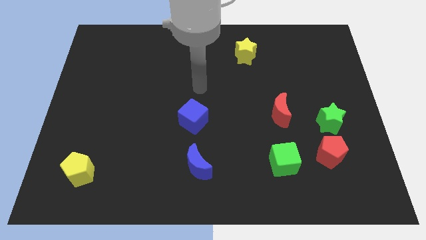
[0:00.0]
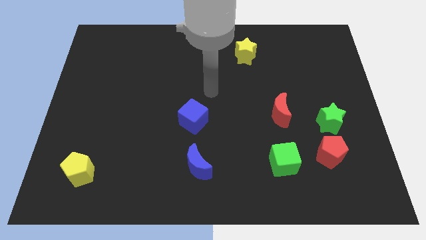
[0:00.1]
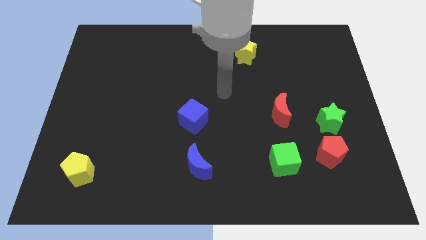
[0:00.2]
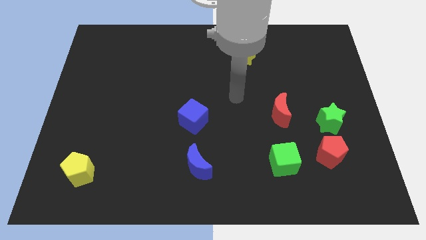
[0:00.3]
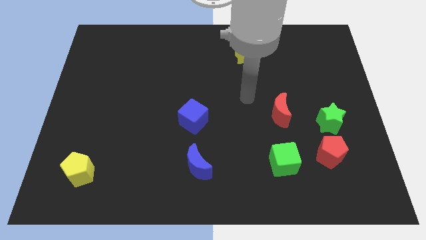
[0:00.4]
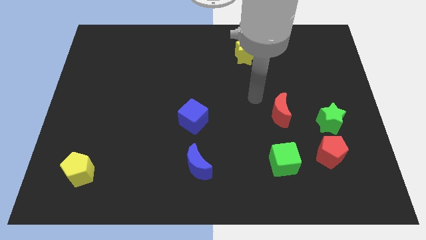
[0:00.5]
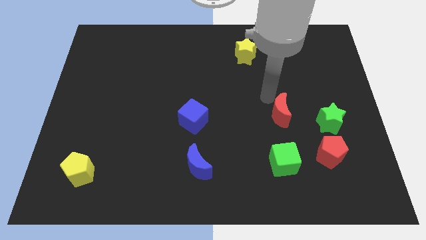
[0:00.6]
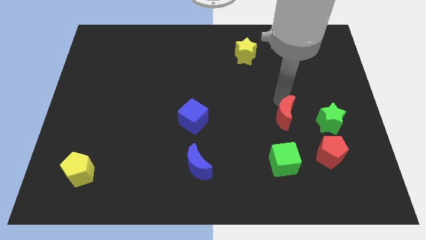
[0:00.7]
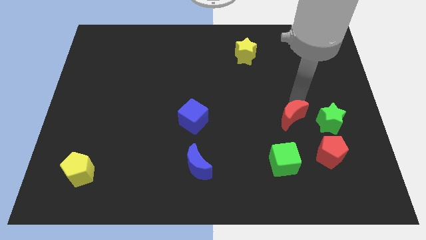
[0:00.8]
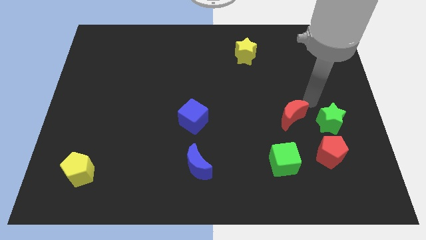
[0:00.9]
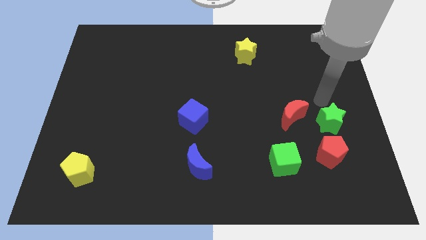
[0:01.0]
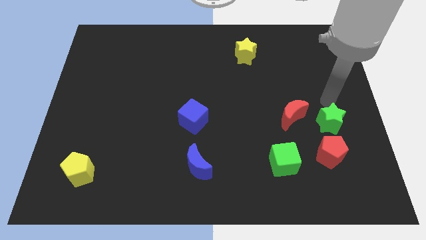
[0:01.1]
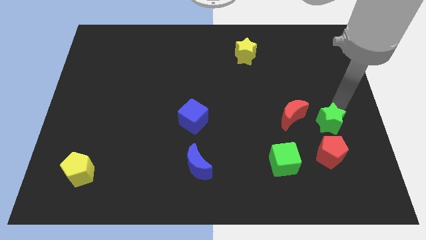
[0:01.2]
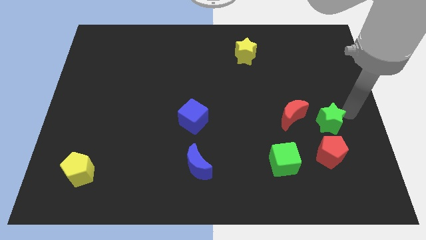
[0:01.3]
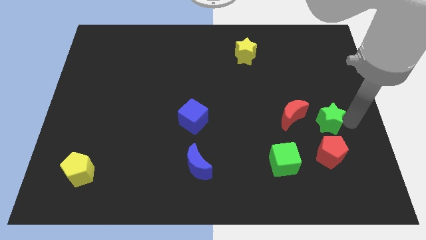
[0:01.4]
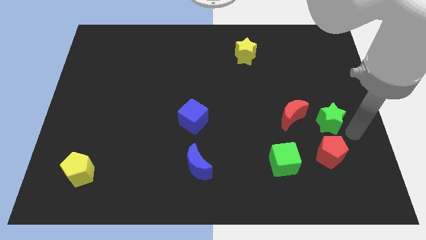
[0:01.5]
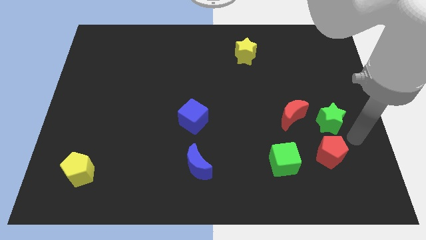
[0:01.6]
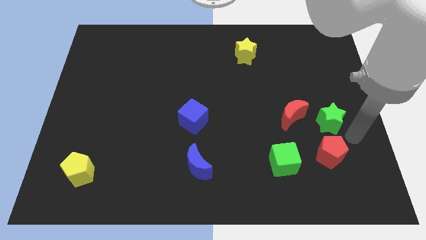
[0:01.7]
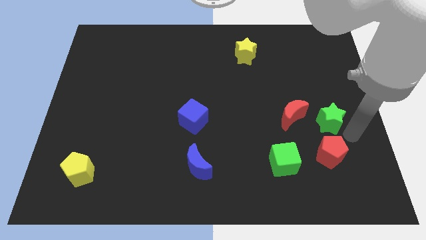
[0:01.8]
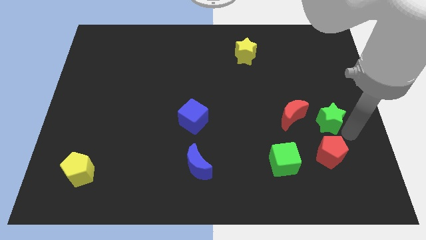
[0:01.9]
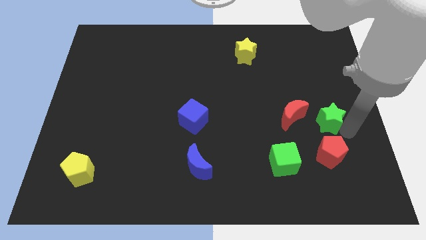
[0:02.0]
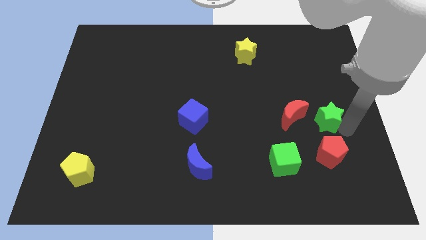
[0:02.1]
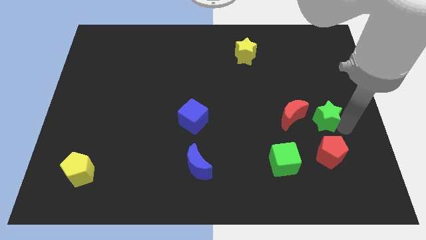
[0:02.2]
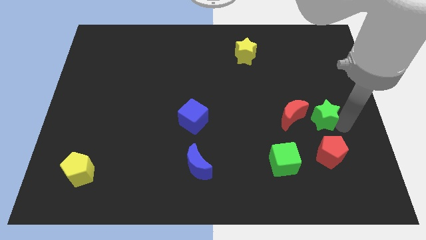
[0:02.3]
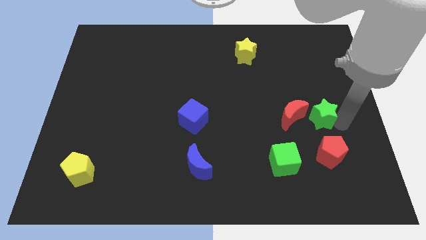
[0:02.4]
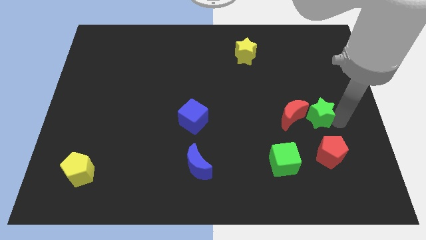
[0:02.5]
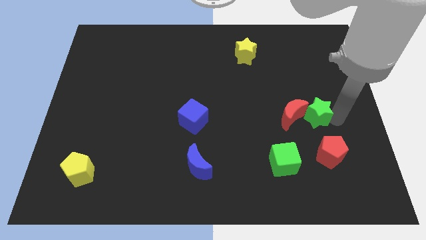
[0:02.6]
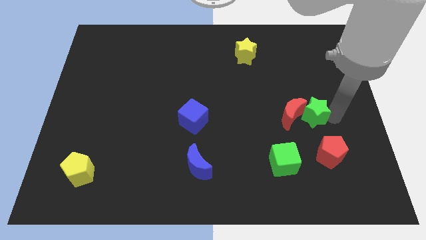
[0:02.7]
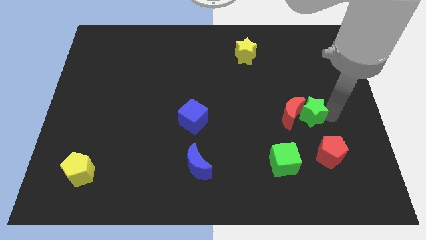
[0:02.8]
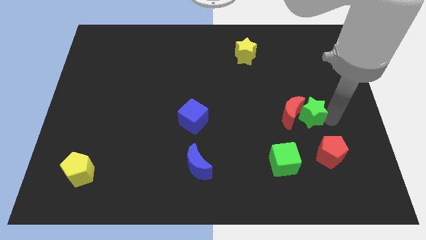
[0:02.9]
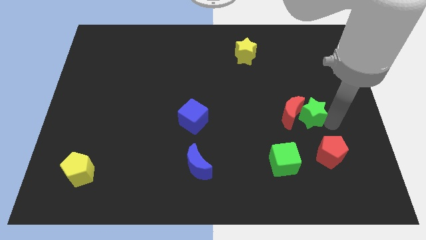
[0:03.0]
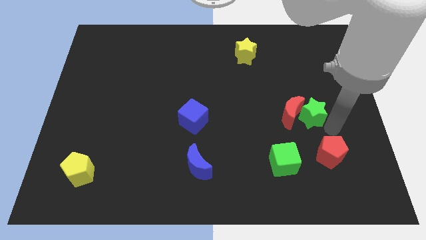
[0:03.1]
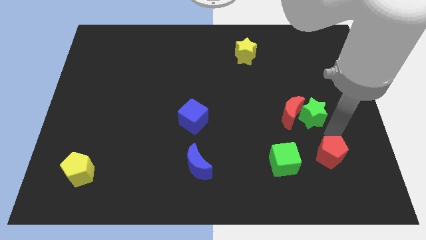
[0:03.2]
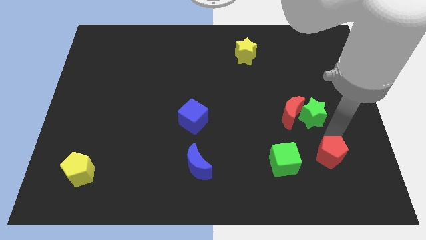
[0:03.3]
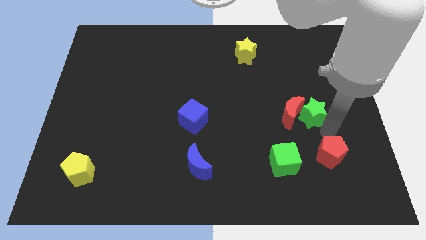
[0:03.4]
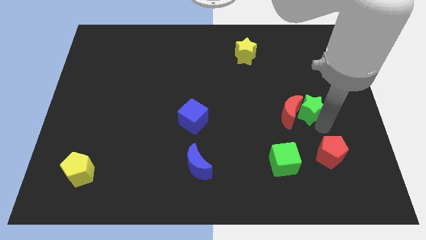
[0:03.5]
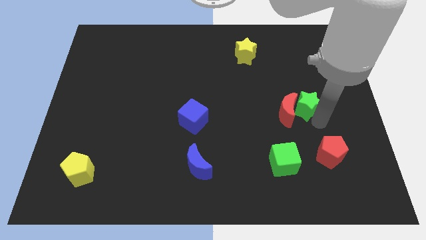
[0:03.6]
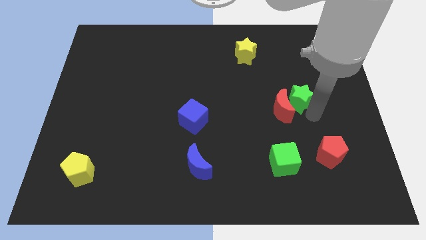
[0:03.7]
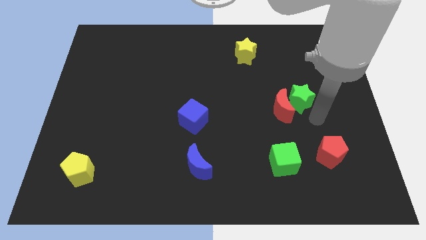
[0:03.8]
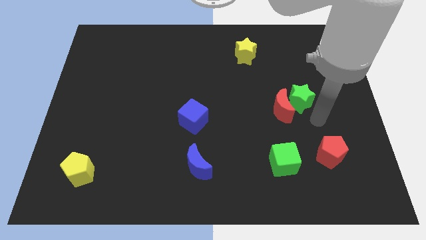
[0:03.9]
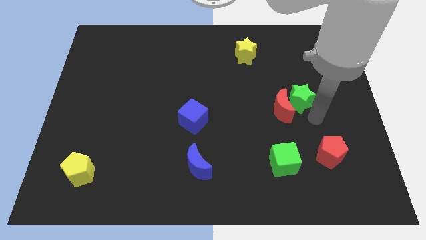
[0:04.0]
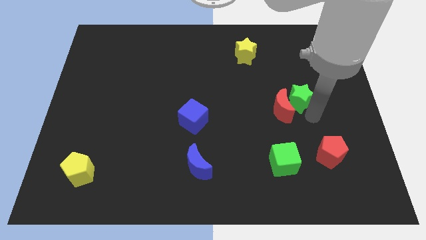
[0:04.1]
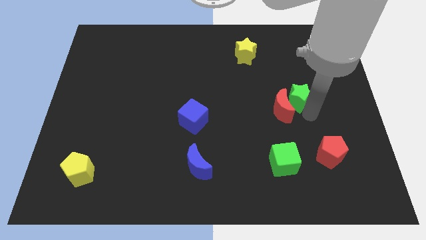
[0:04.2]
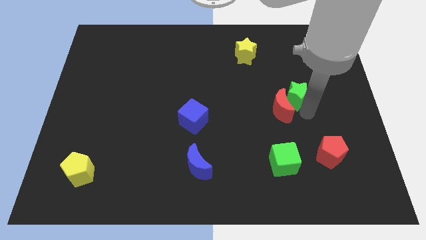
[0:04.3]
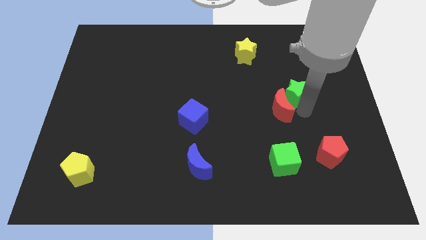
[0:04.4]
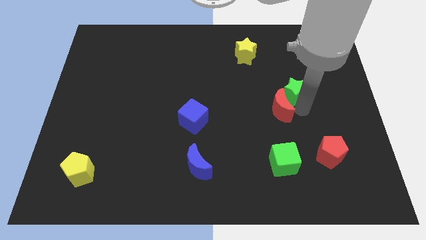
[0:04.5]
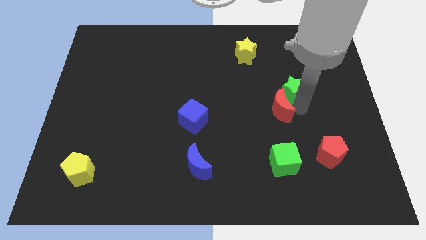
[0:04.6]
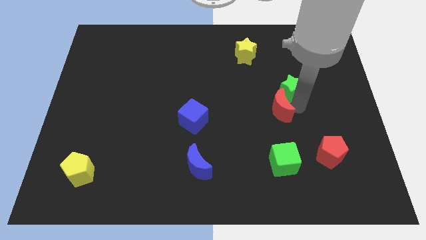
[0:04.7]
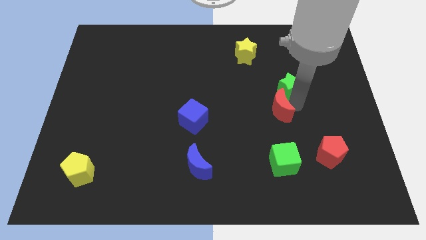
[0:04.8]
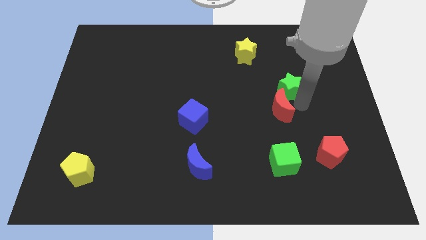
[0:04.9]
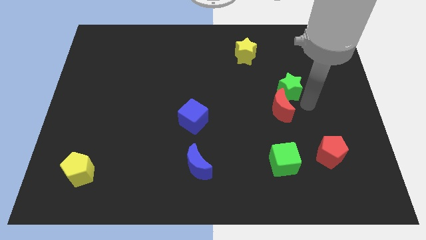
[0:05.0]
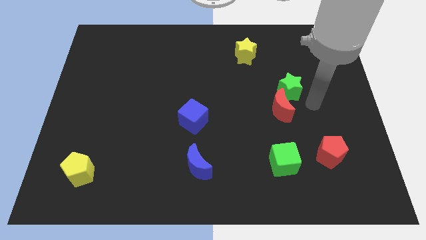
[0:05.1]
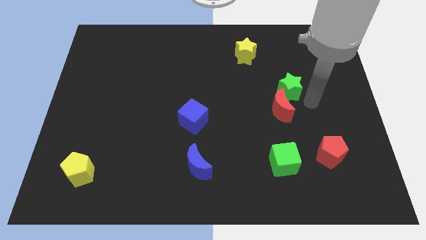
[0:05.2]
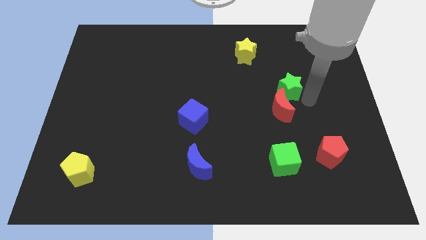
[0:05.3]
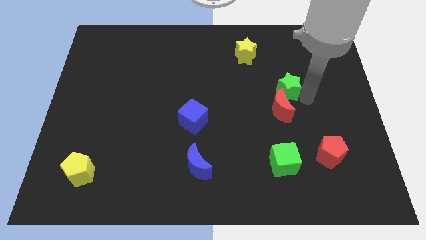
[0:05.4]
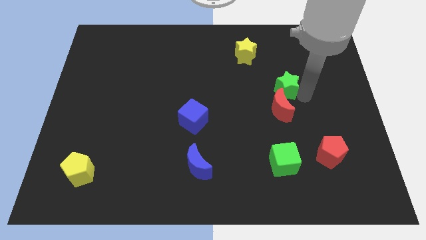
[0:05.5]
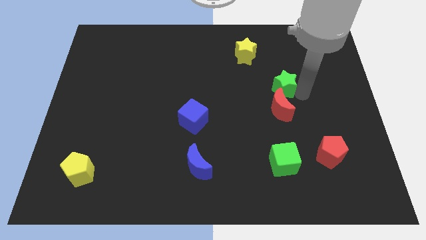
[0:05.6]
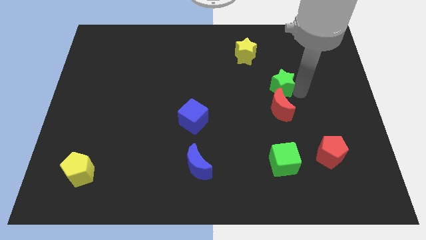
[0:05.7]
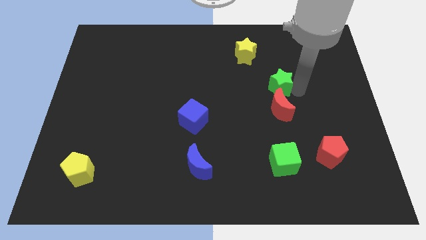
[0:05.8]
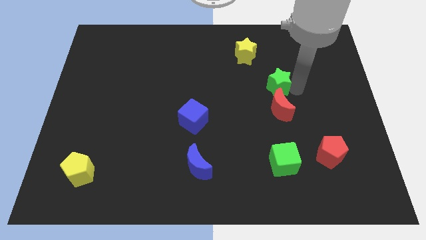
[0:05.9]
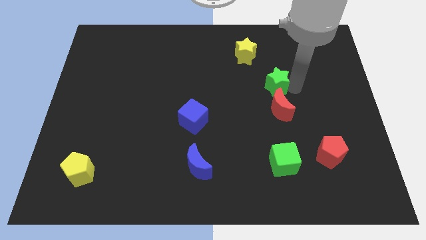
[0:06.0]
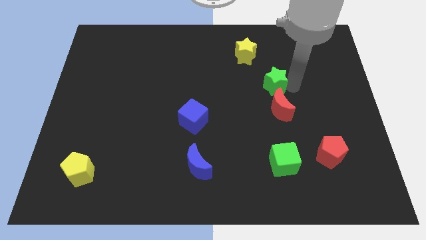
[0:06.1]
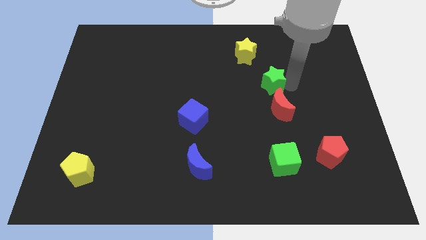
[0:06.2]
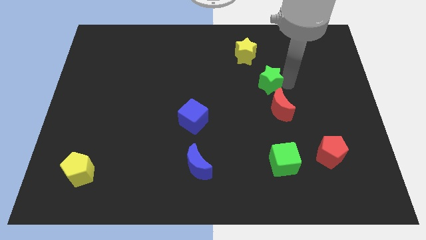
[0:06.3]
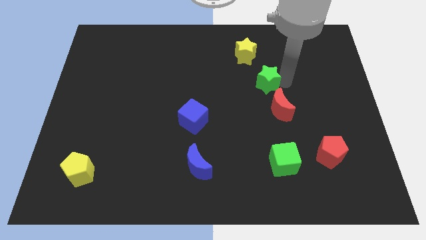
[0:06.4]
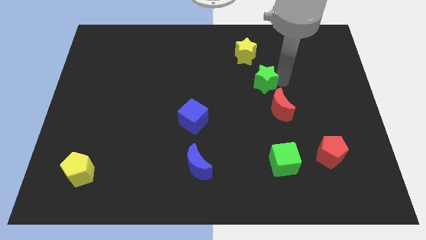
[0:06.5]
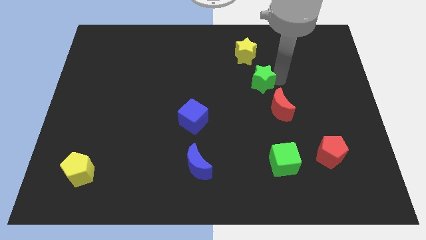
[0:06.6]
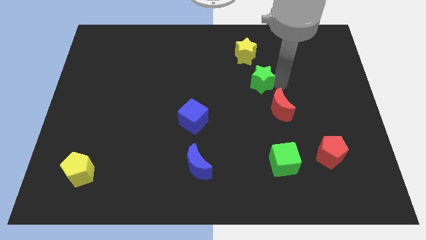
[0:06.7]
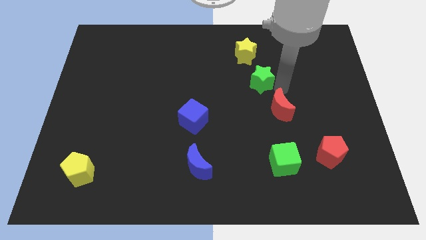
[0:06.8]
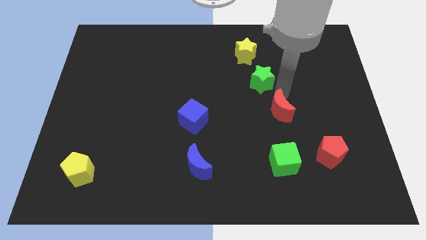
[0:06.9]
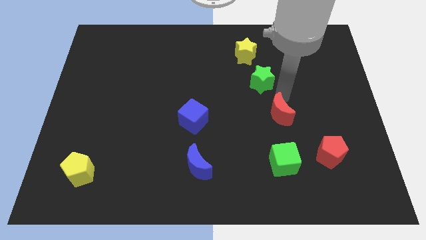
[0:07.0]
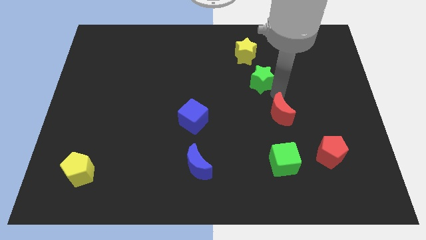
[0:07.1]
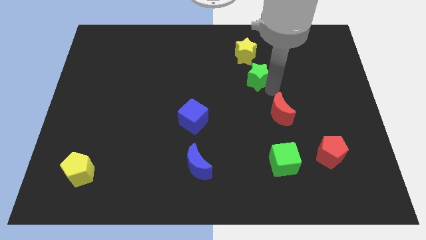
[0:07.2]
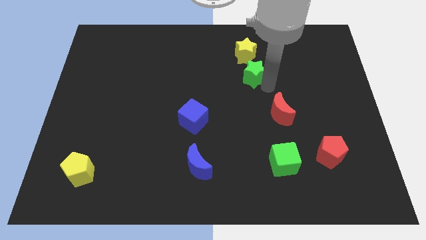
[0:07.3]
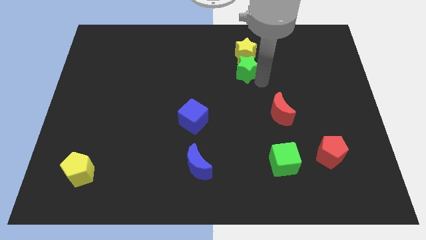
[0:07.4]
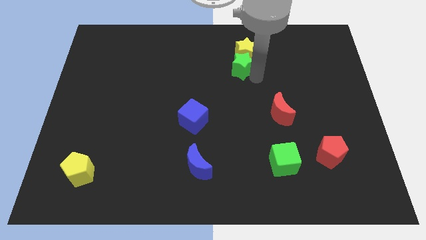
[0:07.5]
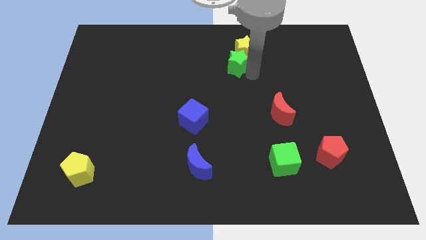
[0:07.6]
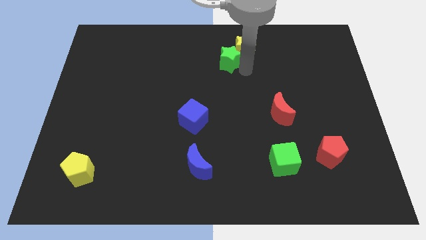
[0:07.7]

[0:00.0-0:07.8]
slide the green star just left of the yellow star
